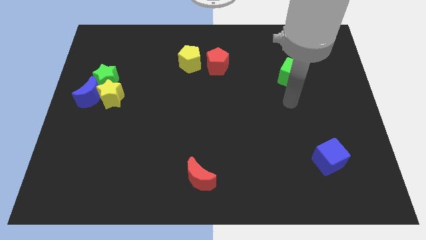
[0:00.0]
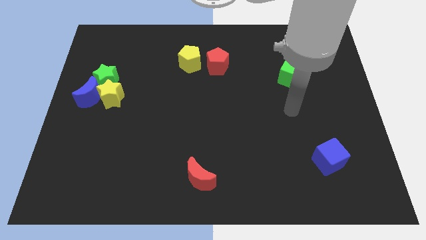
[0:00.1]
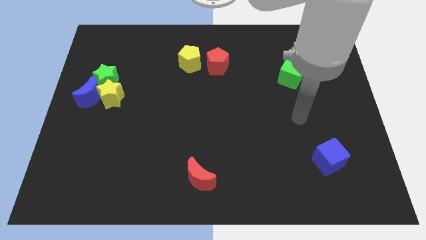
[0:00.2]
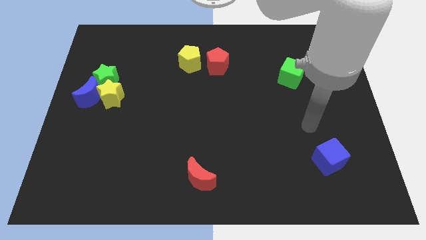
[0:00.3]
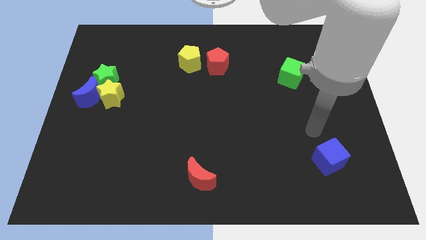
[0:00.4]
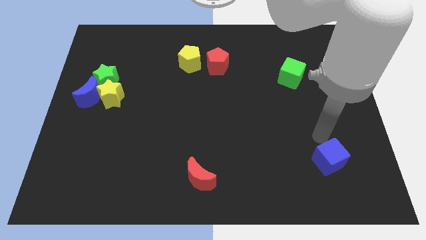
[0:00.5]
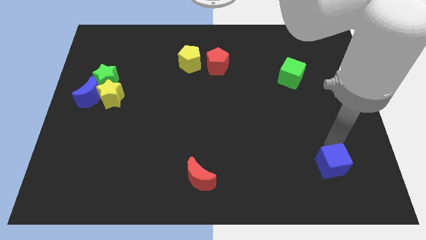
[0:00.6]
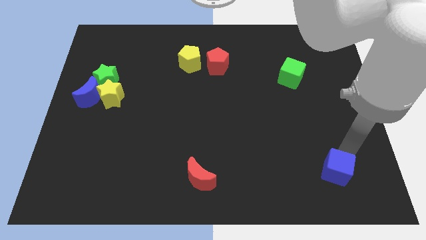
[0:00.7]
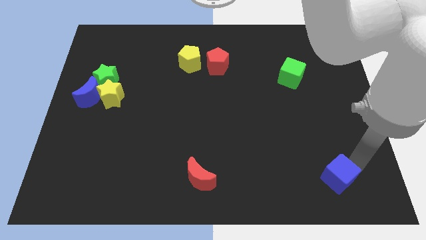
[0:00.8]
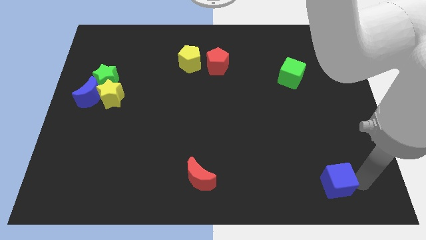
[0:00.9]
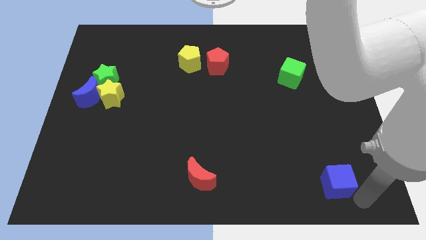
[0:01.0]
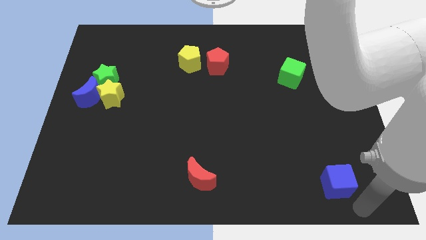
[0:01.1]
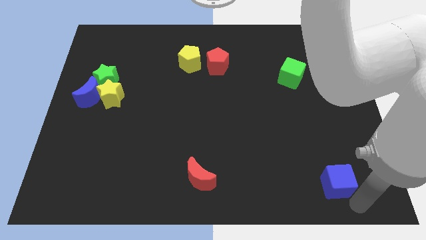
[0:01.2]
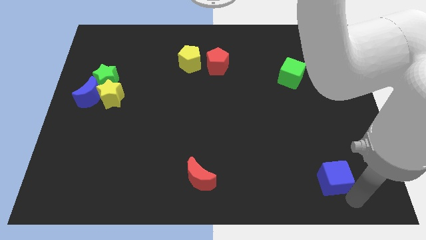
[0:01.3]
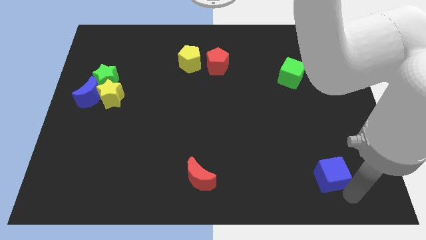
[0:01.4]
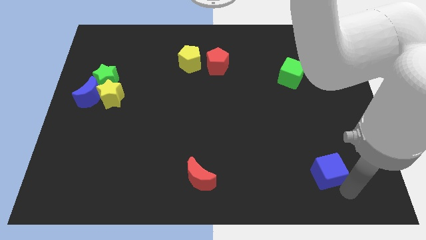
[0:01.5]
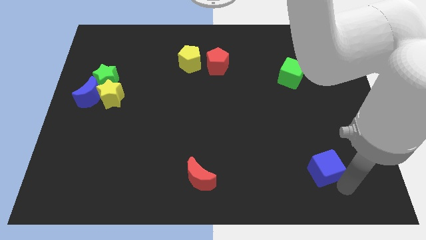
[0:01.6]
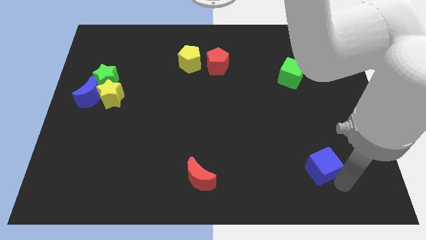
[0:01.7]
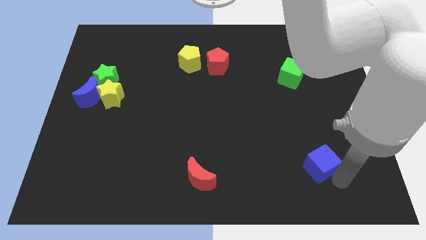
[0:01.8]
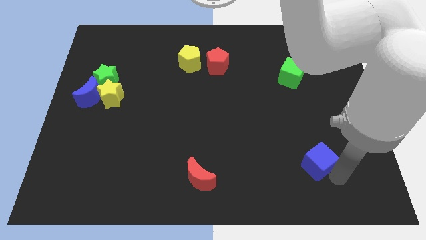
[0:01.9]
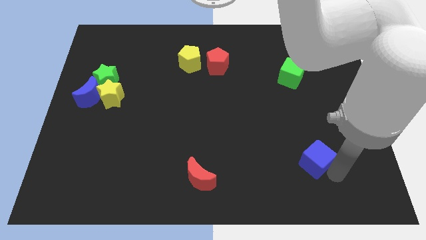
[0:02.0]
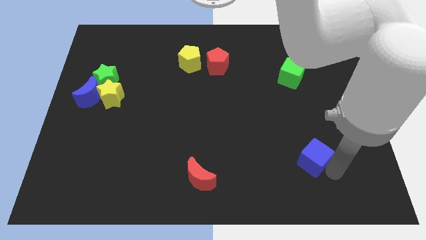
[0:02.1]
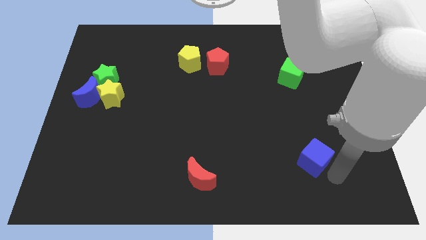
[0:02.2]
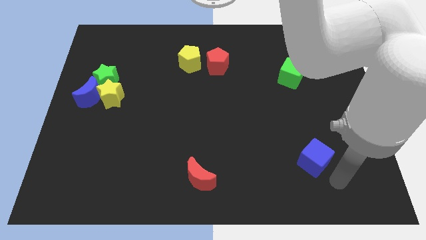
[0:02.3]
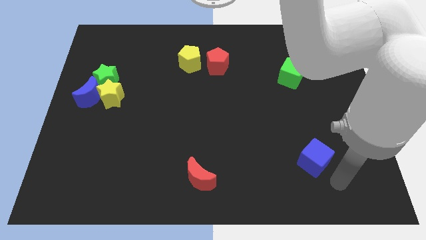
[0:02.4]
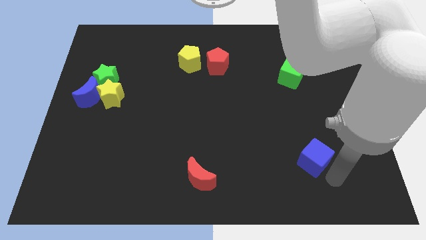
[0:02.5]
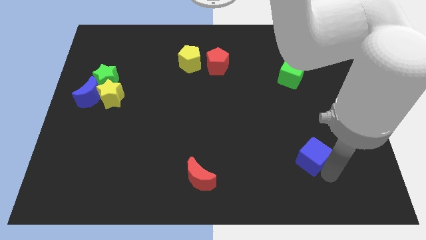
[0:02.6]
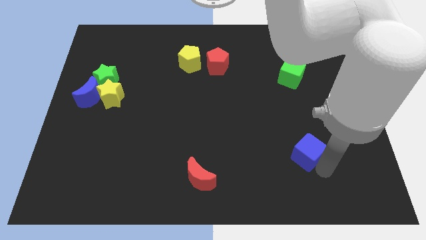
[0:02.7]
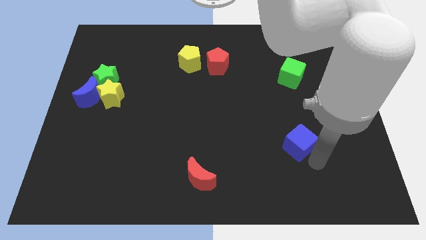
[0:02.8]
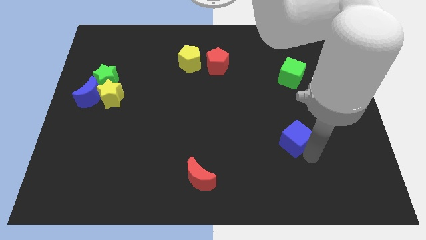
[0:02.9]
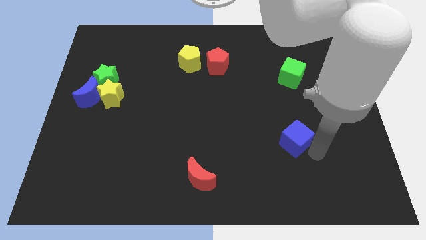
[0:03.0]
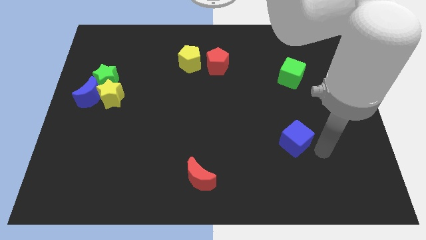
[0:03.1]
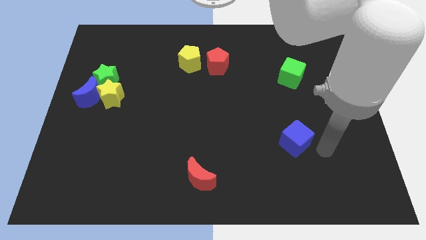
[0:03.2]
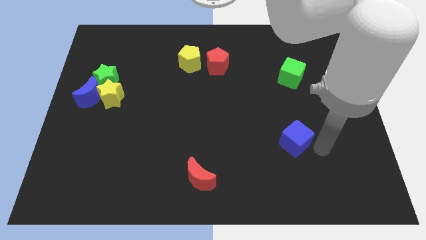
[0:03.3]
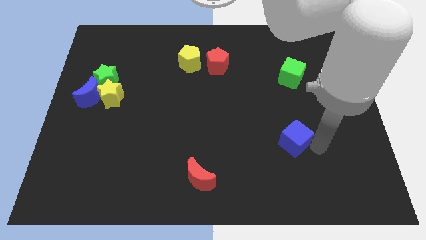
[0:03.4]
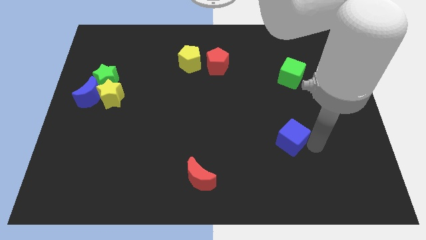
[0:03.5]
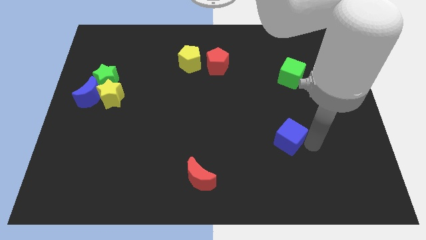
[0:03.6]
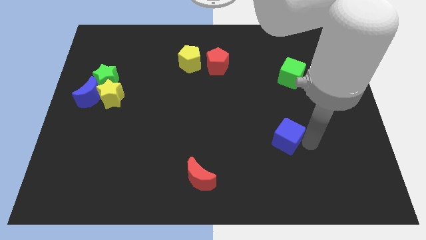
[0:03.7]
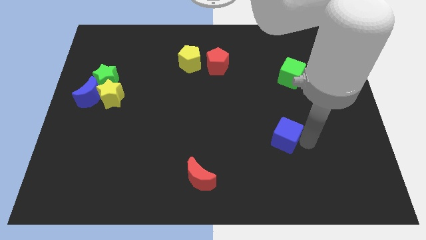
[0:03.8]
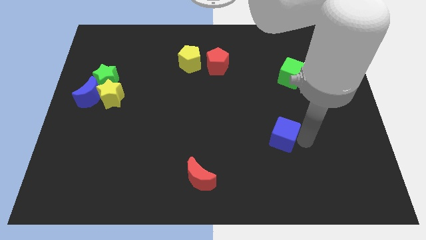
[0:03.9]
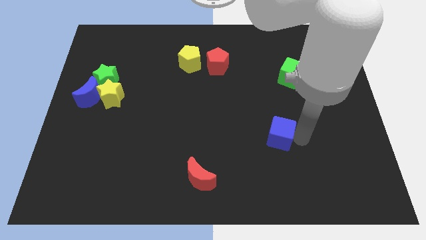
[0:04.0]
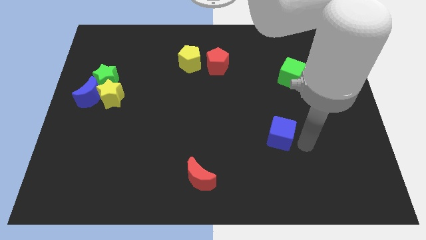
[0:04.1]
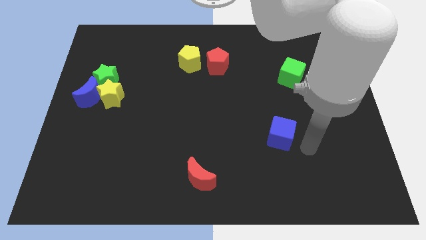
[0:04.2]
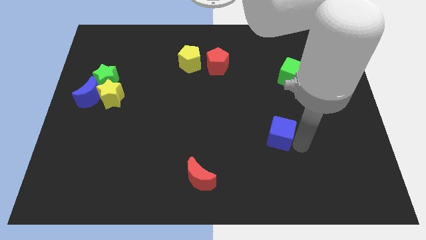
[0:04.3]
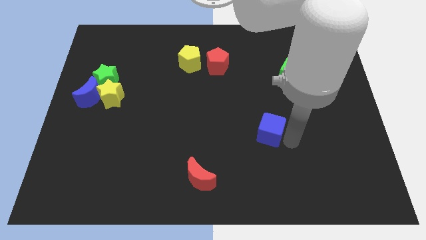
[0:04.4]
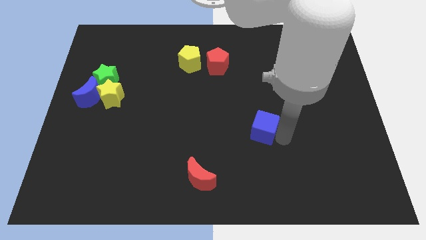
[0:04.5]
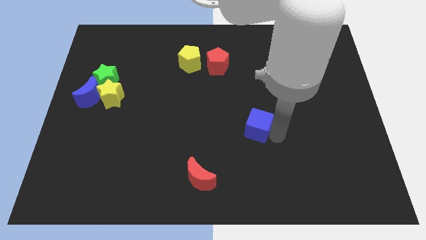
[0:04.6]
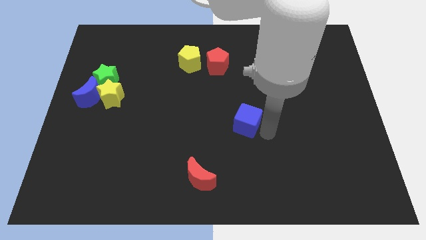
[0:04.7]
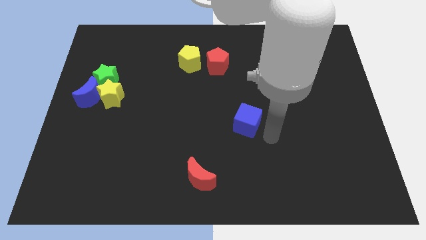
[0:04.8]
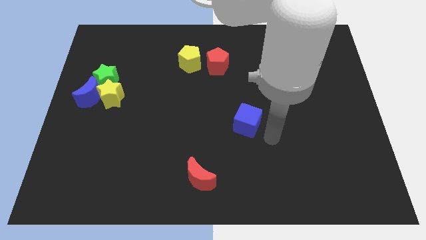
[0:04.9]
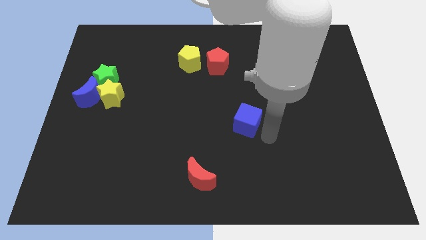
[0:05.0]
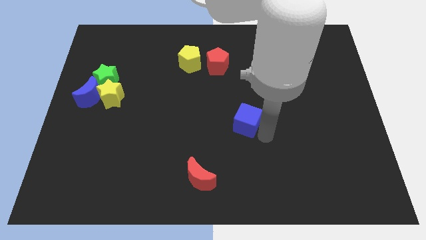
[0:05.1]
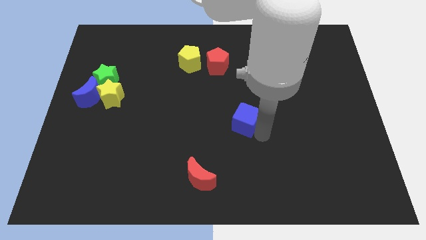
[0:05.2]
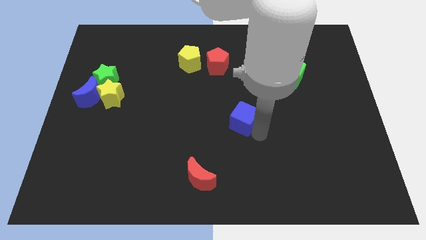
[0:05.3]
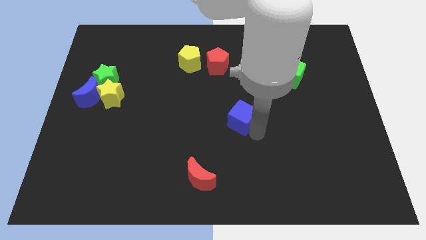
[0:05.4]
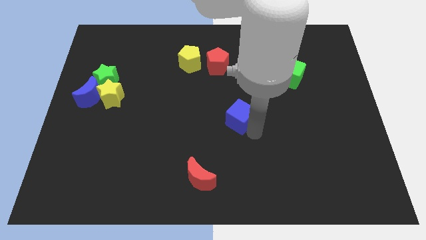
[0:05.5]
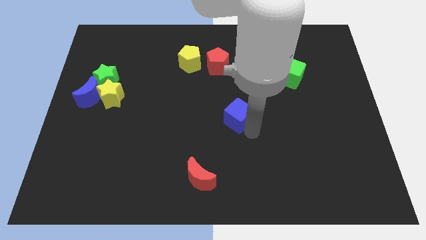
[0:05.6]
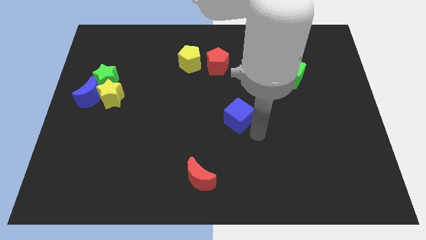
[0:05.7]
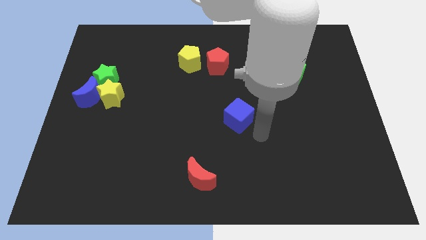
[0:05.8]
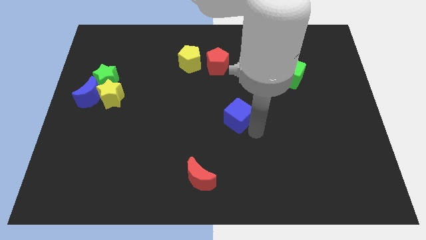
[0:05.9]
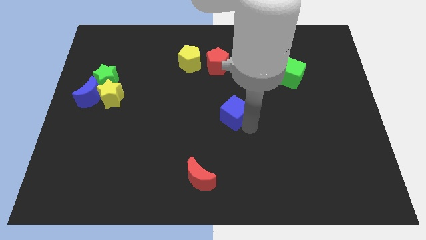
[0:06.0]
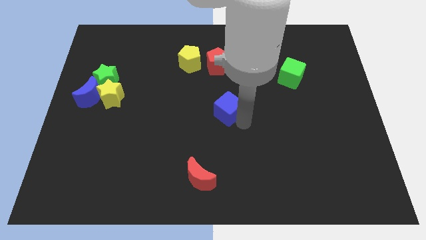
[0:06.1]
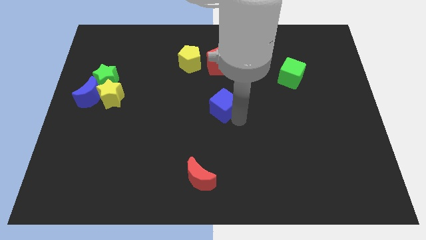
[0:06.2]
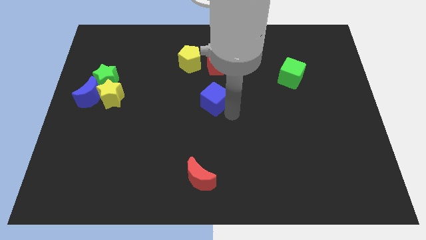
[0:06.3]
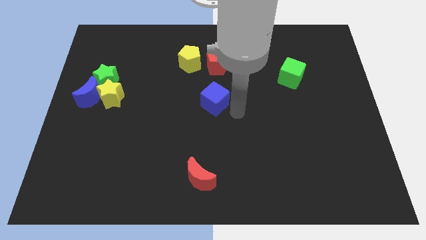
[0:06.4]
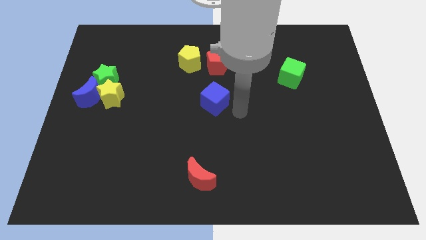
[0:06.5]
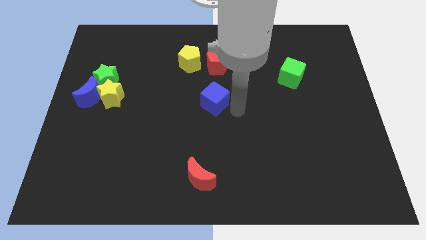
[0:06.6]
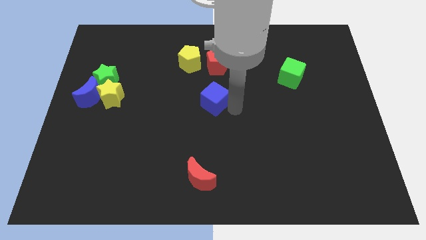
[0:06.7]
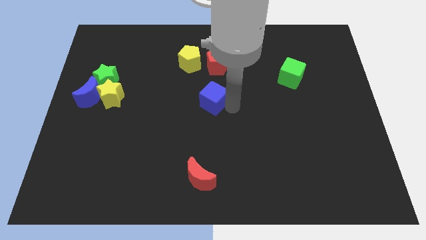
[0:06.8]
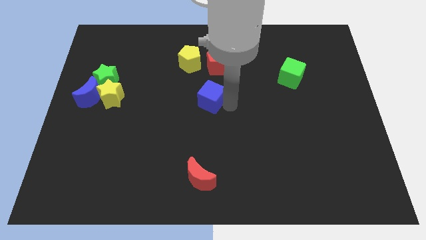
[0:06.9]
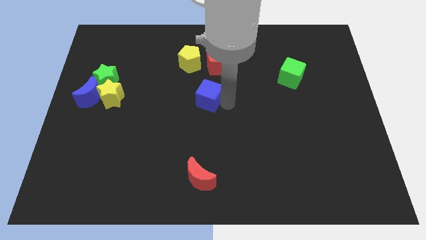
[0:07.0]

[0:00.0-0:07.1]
put the blue cube to the bottom side of the yellow pentagon
